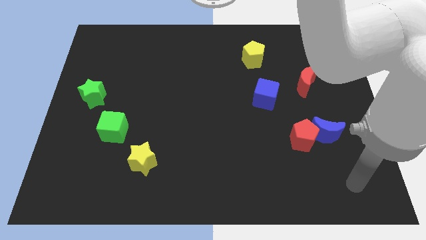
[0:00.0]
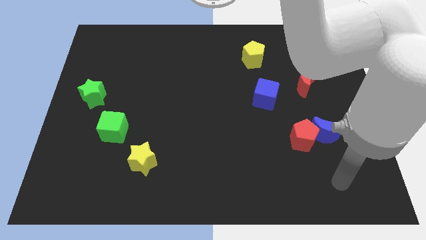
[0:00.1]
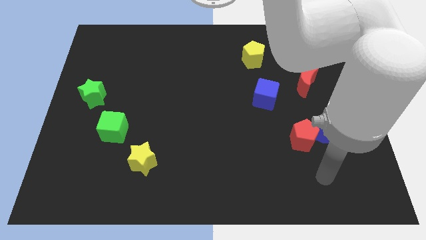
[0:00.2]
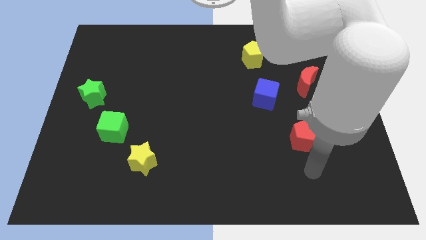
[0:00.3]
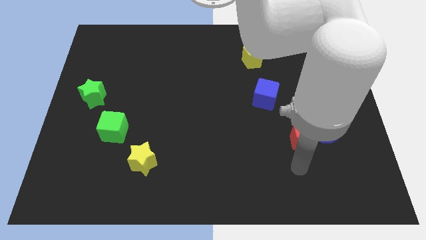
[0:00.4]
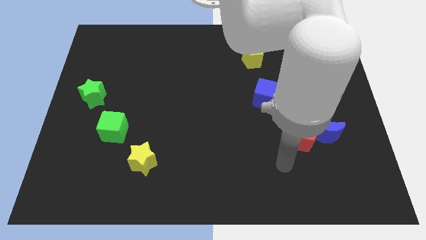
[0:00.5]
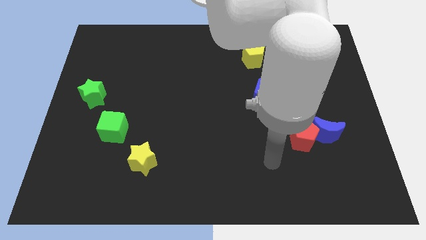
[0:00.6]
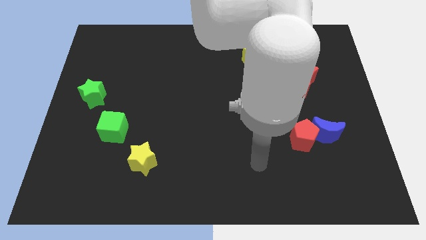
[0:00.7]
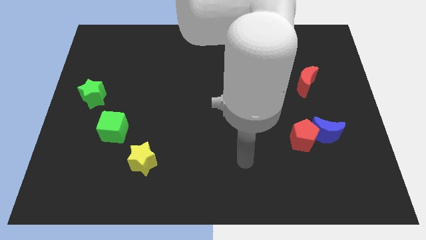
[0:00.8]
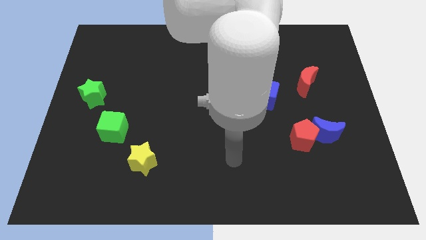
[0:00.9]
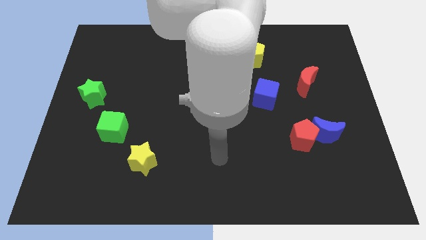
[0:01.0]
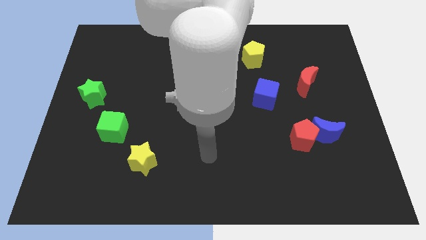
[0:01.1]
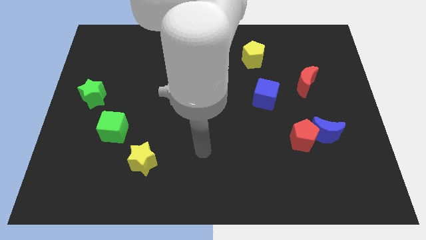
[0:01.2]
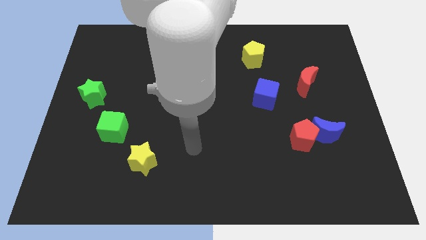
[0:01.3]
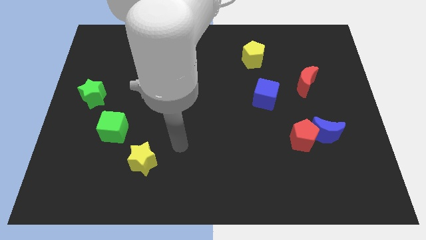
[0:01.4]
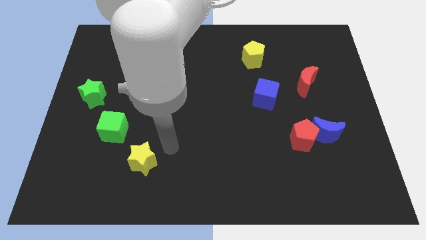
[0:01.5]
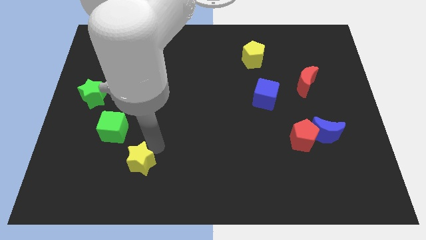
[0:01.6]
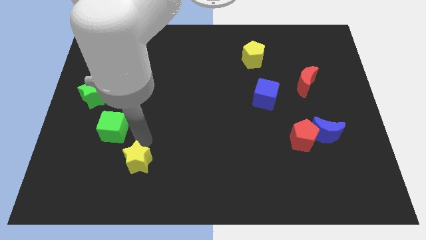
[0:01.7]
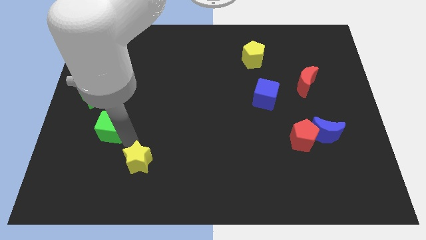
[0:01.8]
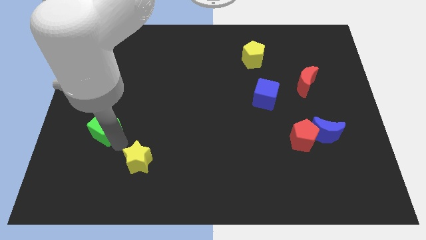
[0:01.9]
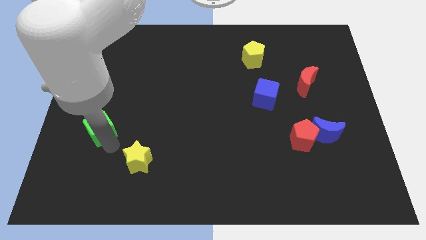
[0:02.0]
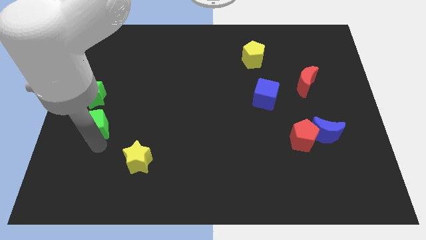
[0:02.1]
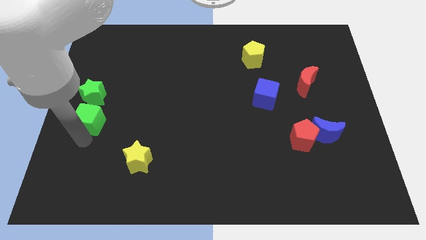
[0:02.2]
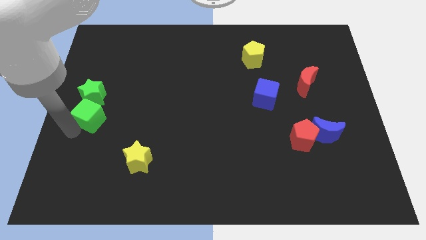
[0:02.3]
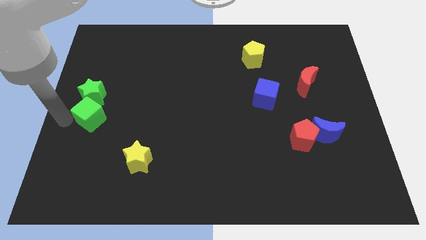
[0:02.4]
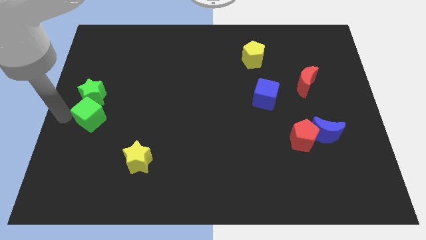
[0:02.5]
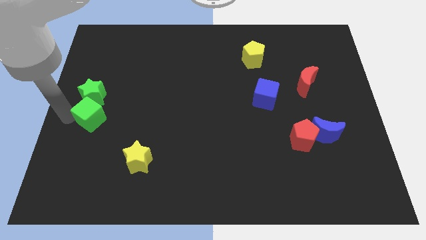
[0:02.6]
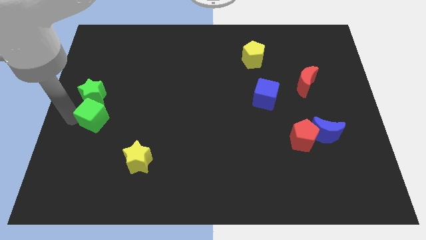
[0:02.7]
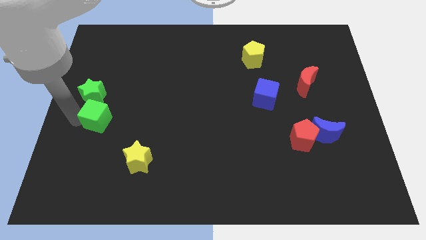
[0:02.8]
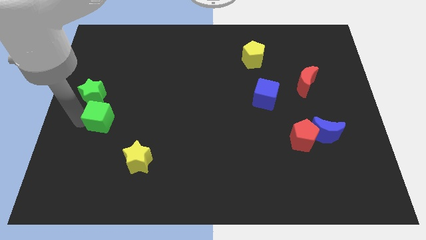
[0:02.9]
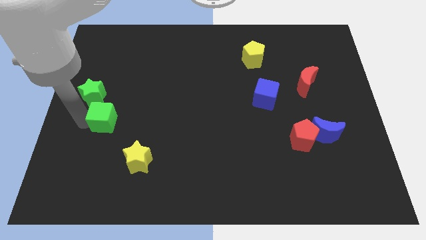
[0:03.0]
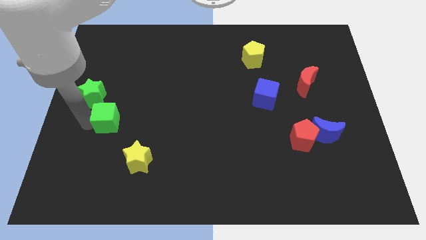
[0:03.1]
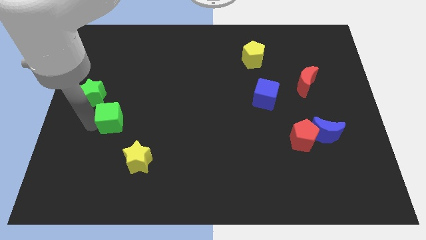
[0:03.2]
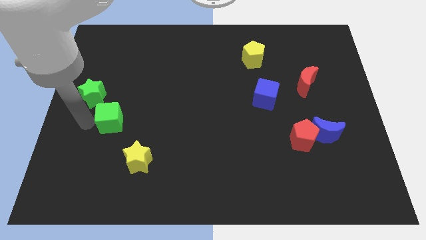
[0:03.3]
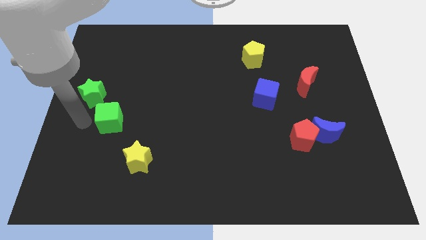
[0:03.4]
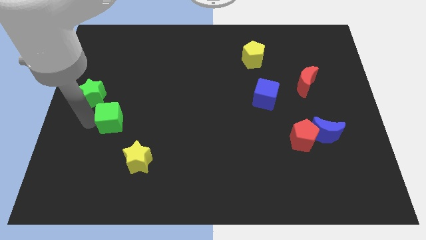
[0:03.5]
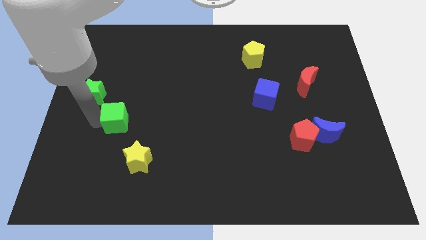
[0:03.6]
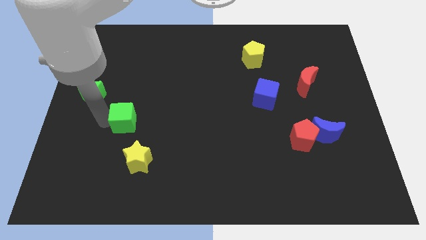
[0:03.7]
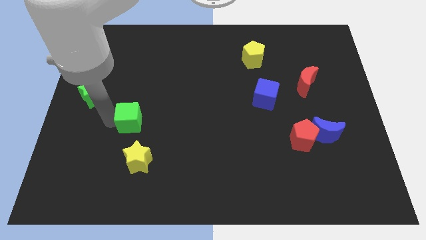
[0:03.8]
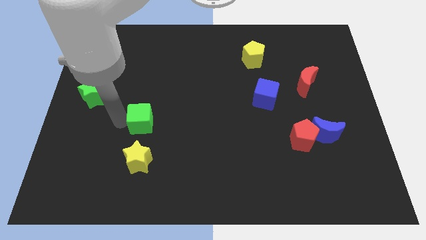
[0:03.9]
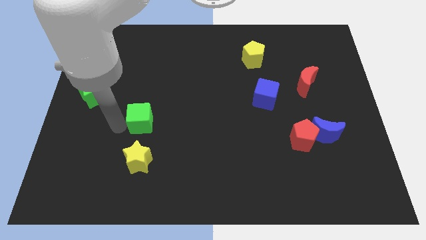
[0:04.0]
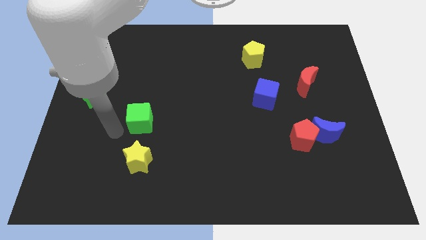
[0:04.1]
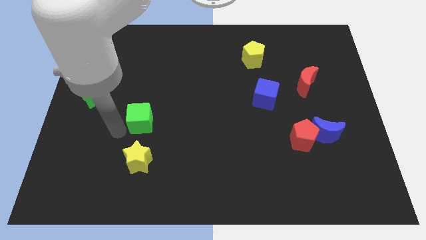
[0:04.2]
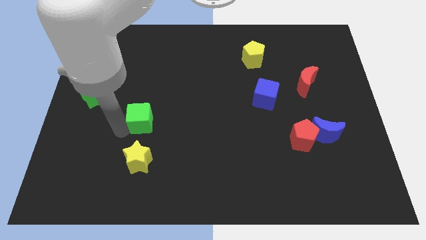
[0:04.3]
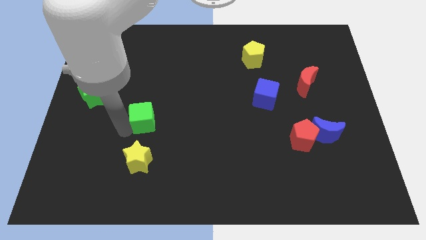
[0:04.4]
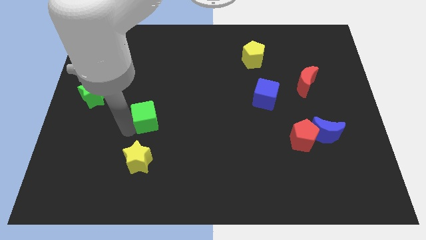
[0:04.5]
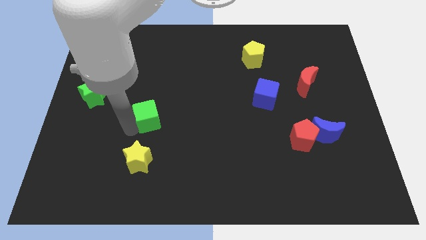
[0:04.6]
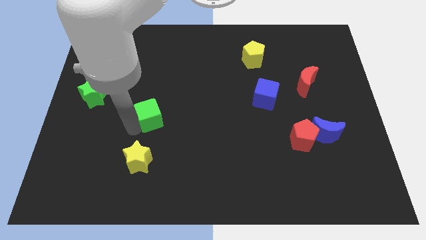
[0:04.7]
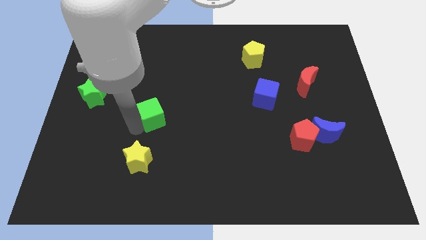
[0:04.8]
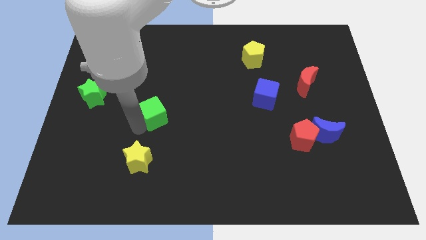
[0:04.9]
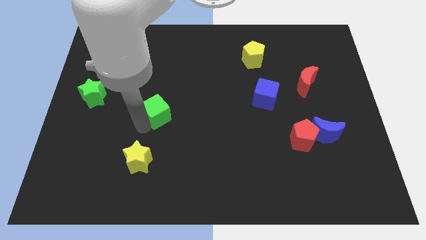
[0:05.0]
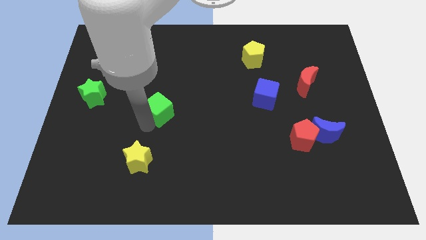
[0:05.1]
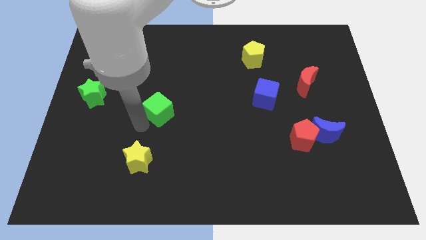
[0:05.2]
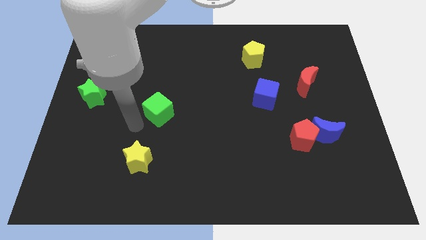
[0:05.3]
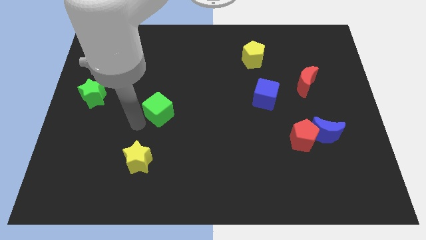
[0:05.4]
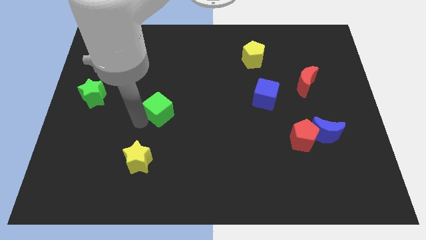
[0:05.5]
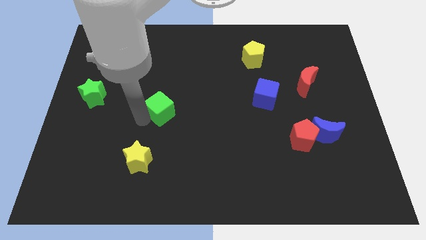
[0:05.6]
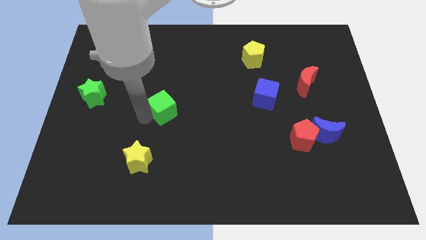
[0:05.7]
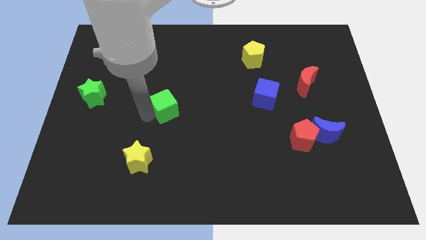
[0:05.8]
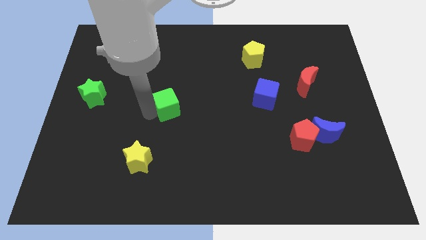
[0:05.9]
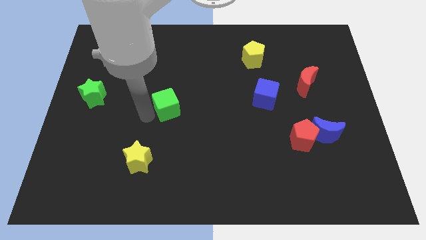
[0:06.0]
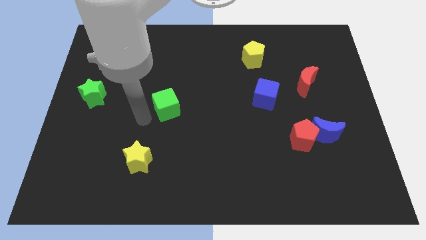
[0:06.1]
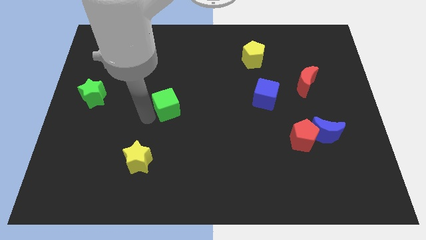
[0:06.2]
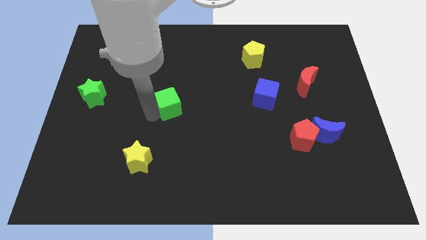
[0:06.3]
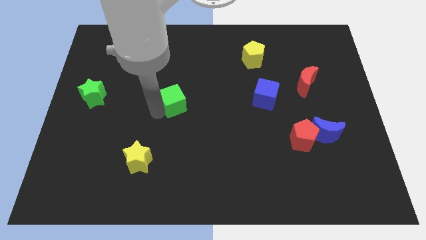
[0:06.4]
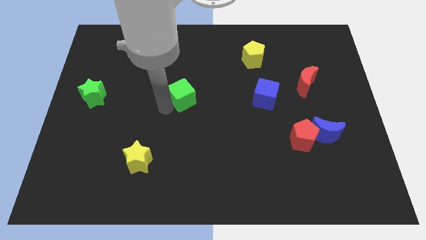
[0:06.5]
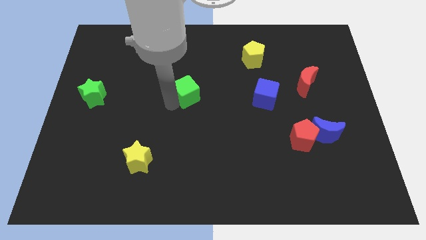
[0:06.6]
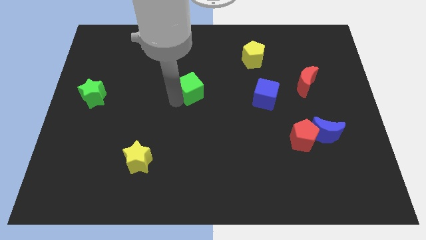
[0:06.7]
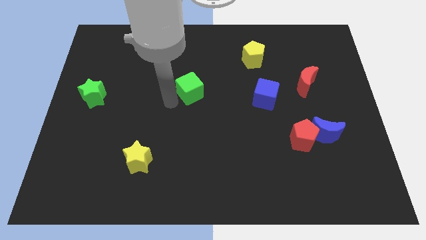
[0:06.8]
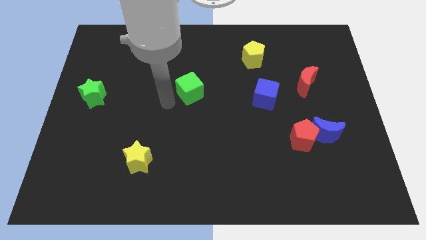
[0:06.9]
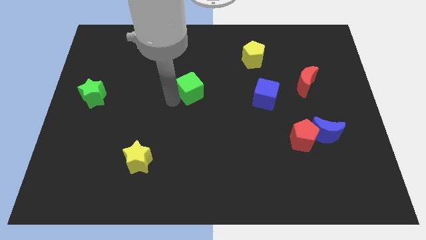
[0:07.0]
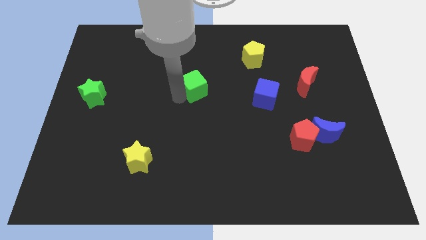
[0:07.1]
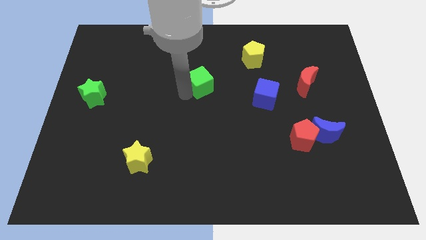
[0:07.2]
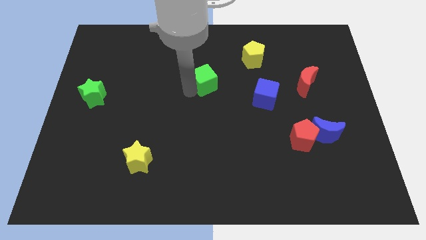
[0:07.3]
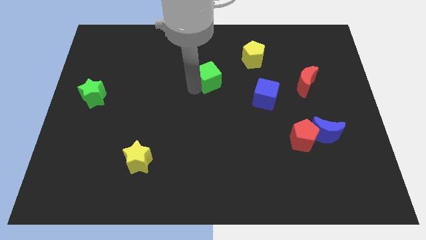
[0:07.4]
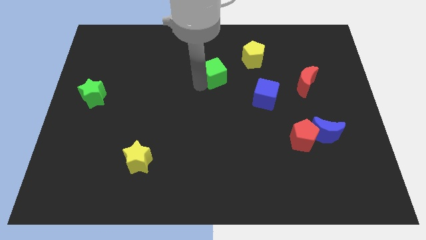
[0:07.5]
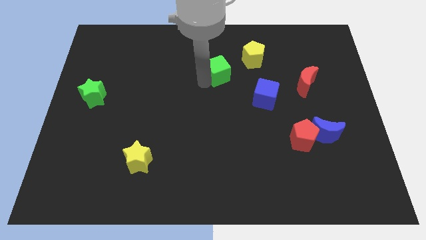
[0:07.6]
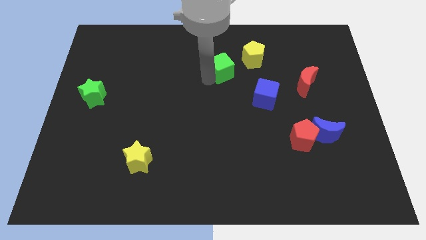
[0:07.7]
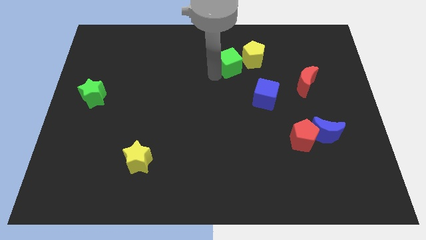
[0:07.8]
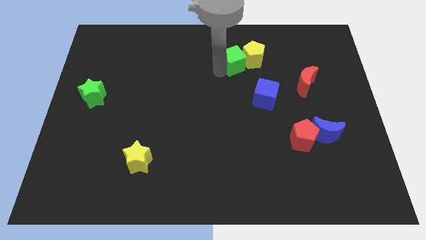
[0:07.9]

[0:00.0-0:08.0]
slide the green cube next to the yellow pentagon
